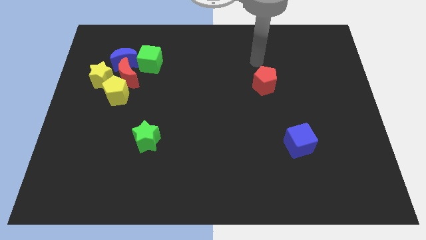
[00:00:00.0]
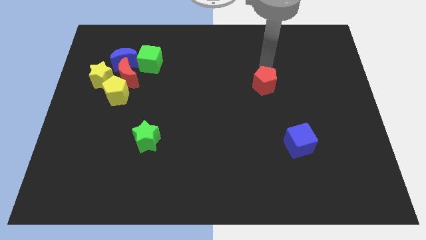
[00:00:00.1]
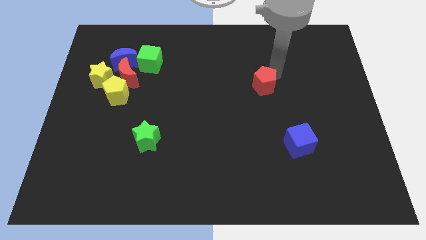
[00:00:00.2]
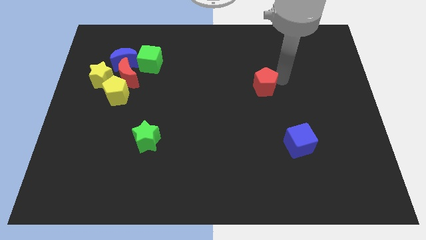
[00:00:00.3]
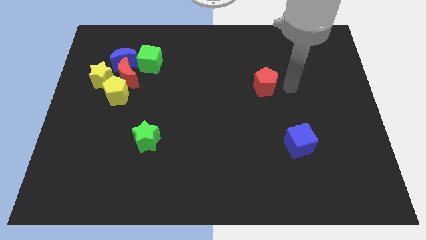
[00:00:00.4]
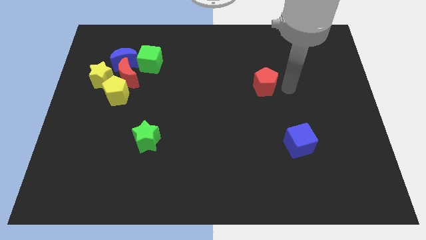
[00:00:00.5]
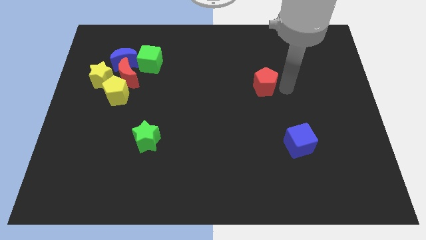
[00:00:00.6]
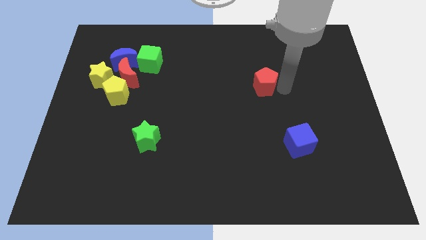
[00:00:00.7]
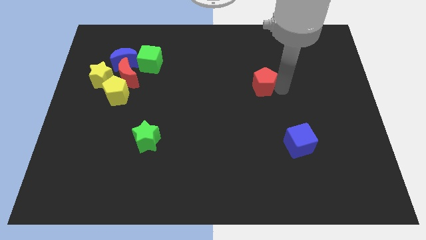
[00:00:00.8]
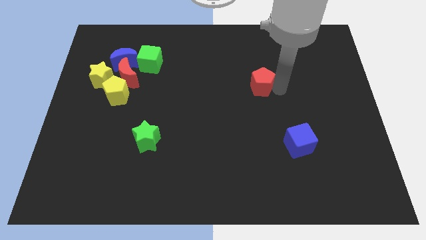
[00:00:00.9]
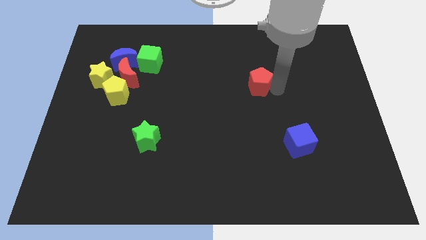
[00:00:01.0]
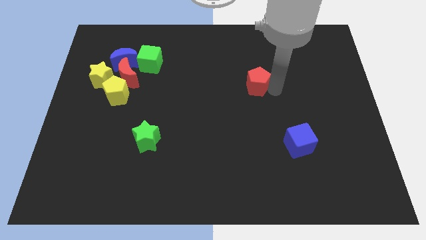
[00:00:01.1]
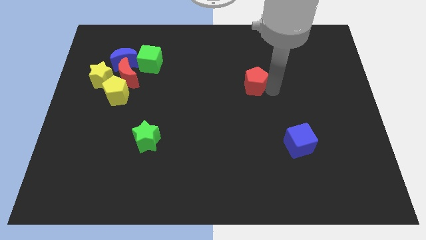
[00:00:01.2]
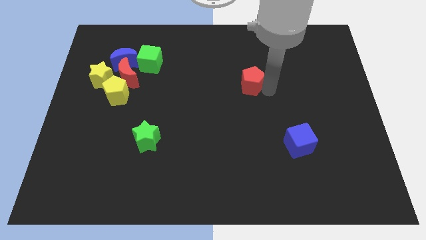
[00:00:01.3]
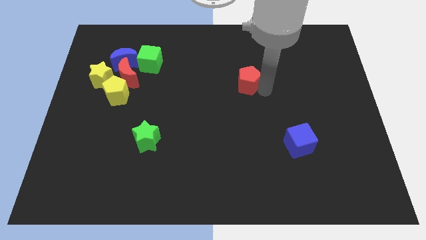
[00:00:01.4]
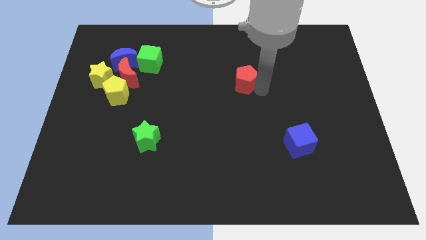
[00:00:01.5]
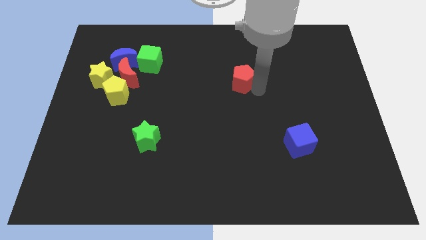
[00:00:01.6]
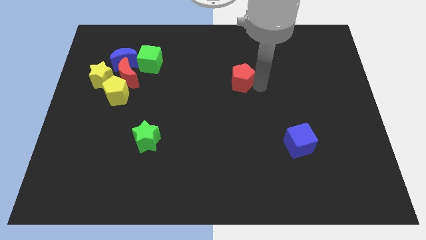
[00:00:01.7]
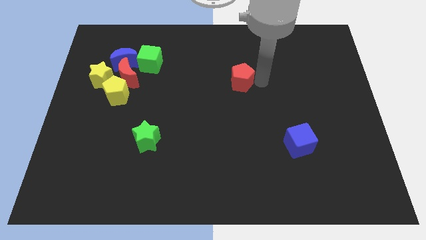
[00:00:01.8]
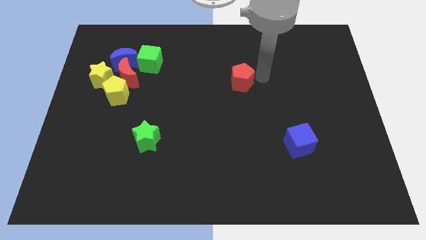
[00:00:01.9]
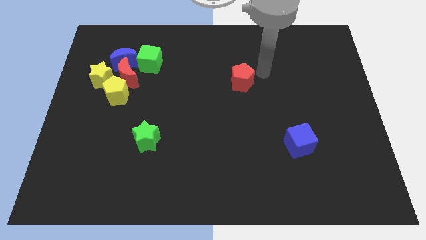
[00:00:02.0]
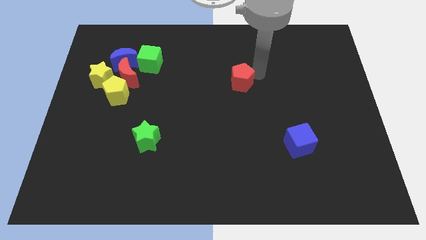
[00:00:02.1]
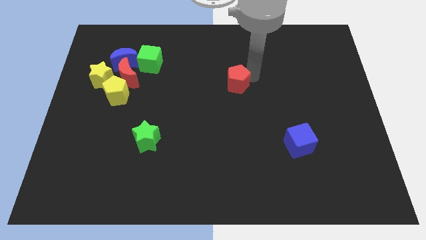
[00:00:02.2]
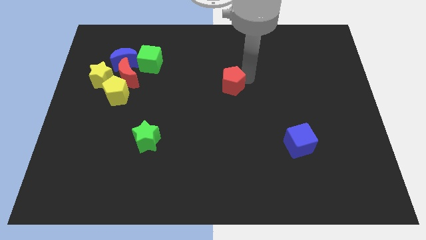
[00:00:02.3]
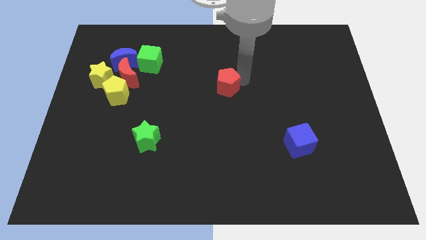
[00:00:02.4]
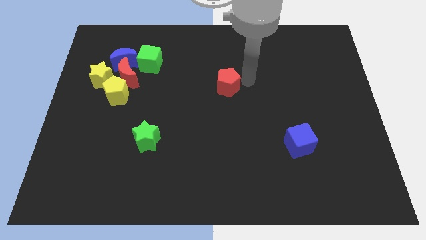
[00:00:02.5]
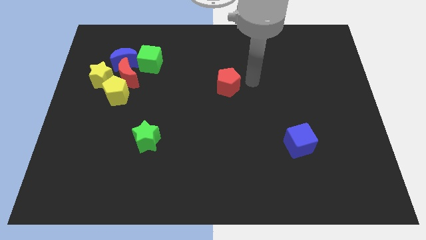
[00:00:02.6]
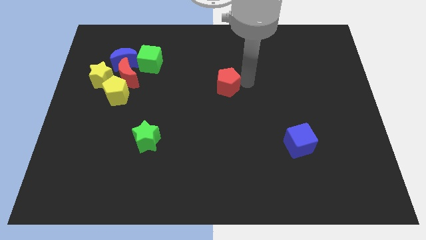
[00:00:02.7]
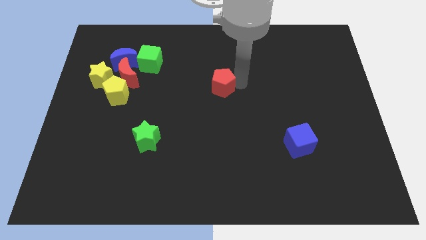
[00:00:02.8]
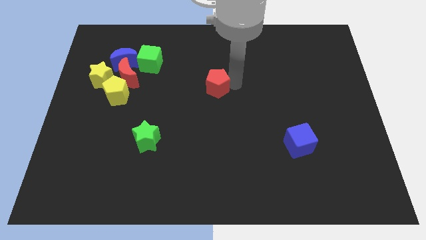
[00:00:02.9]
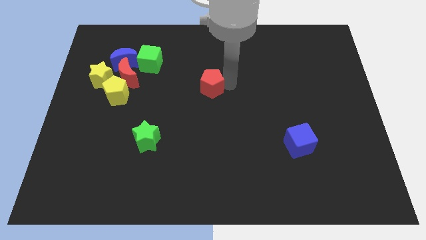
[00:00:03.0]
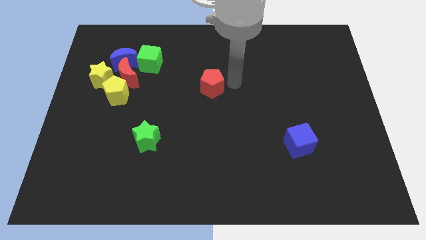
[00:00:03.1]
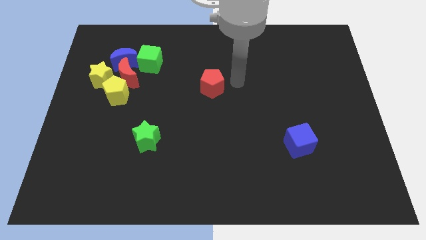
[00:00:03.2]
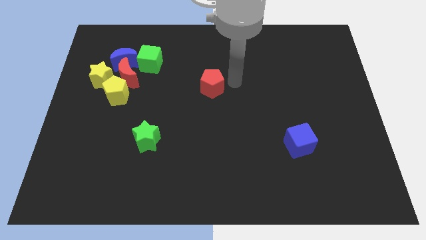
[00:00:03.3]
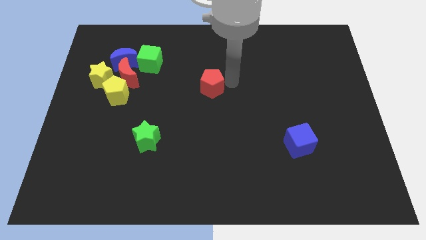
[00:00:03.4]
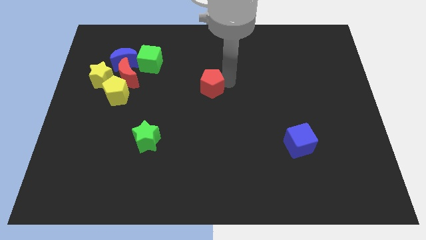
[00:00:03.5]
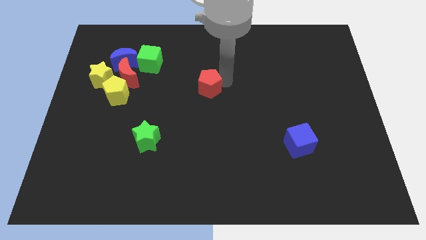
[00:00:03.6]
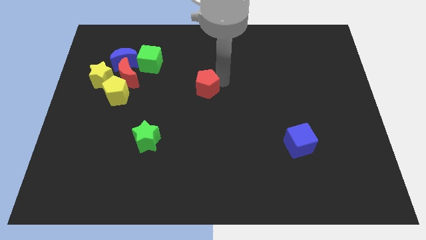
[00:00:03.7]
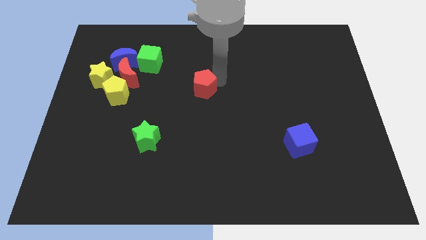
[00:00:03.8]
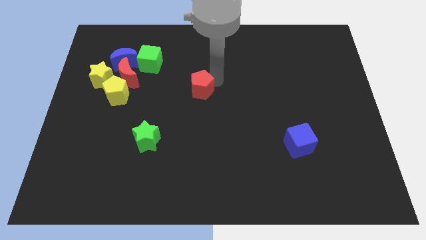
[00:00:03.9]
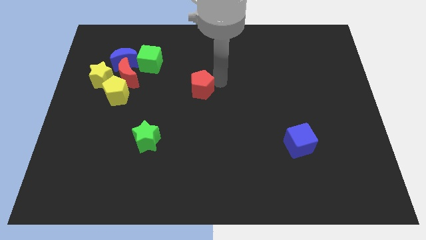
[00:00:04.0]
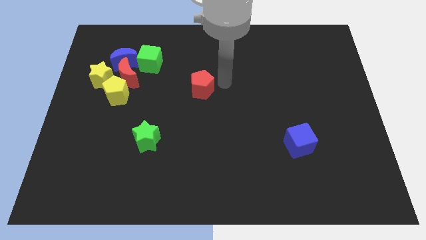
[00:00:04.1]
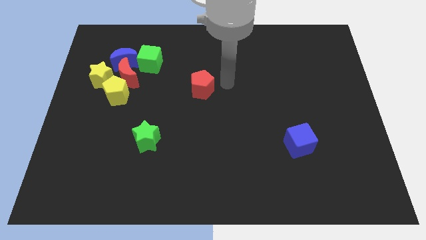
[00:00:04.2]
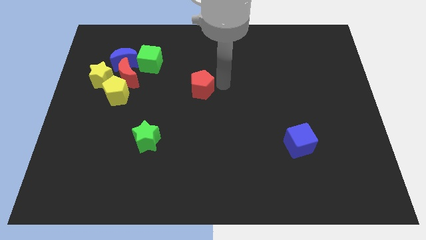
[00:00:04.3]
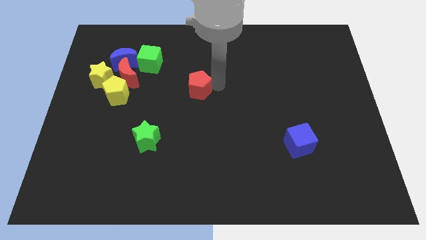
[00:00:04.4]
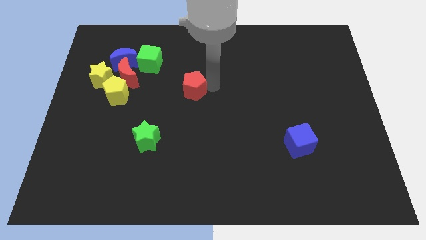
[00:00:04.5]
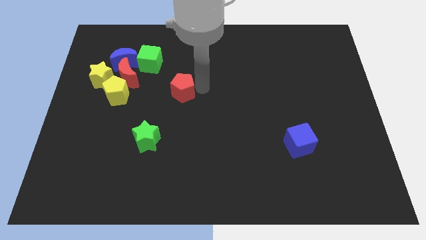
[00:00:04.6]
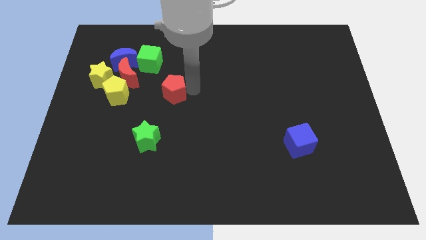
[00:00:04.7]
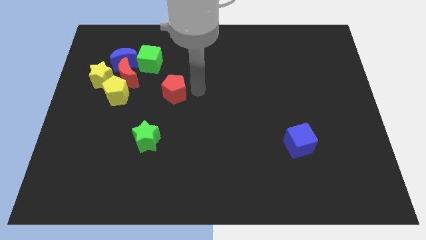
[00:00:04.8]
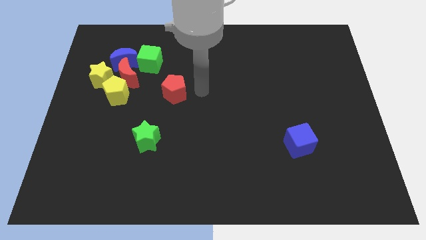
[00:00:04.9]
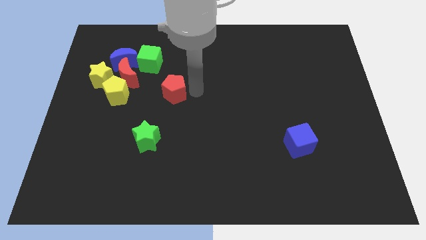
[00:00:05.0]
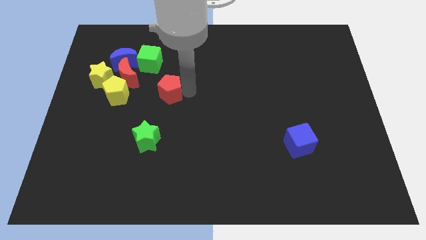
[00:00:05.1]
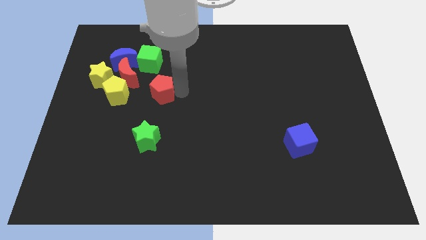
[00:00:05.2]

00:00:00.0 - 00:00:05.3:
slide the red pentagon diagonally down and to the right of the red moon

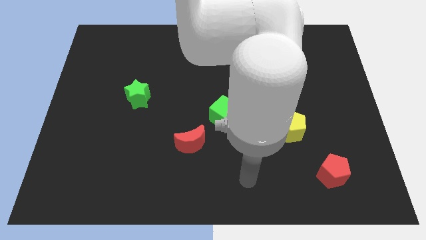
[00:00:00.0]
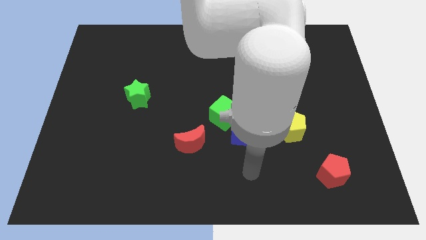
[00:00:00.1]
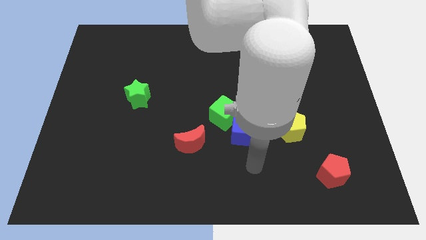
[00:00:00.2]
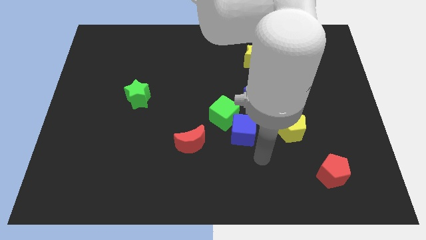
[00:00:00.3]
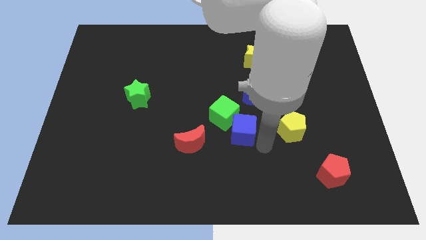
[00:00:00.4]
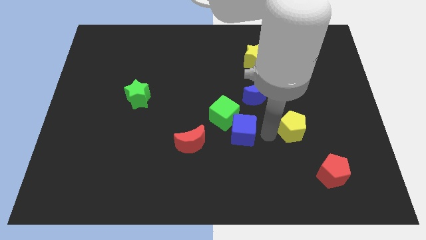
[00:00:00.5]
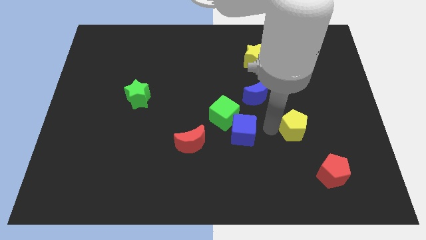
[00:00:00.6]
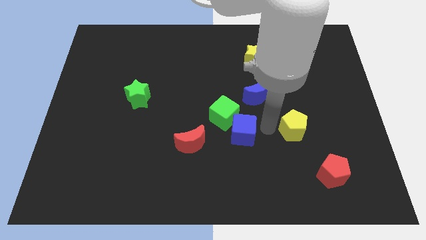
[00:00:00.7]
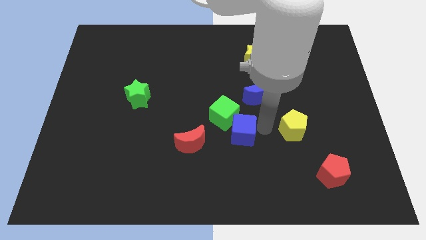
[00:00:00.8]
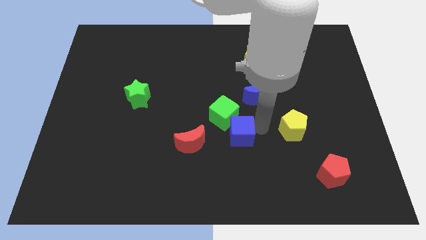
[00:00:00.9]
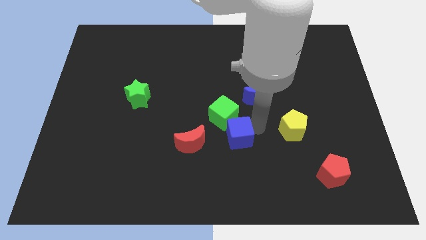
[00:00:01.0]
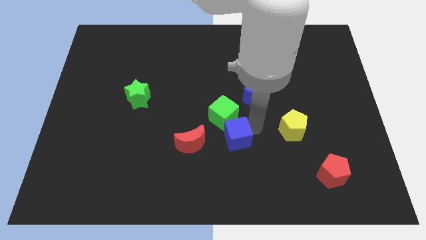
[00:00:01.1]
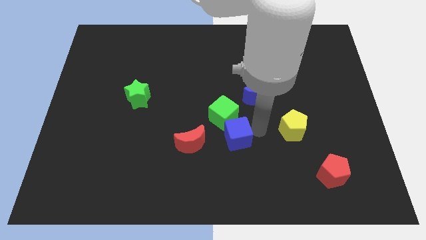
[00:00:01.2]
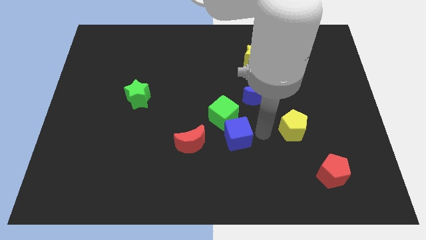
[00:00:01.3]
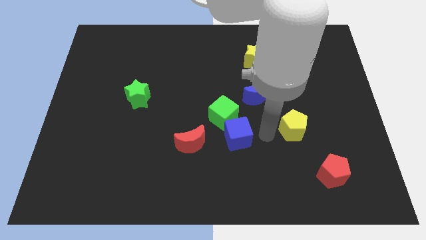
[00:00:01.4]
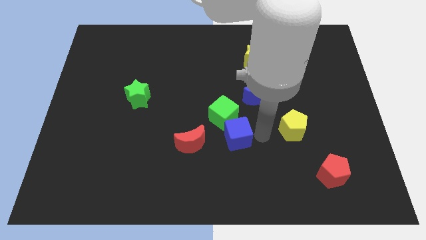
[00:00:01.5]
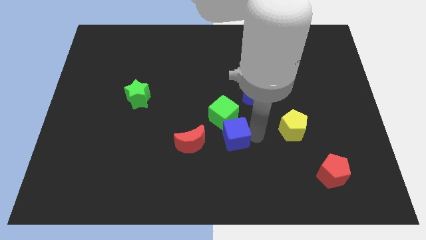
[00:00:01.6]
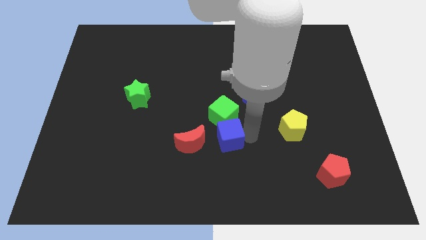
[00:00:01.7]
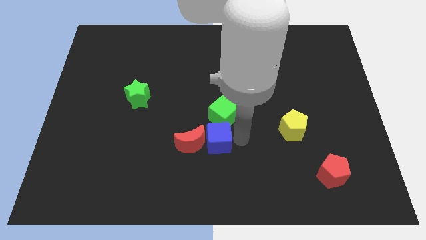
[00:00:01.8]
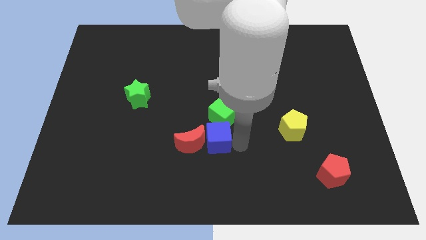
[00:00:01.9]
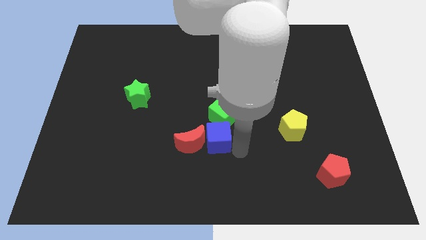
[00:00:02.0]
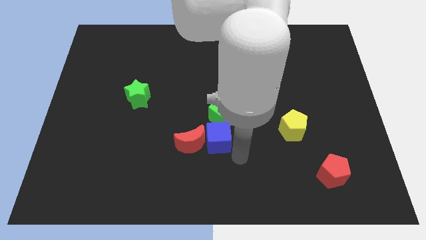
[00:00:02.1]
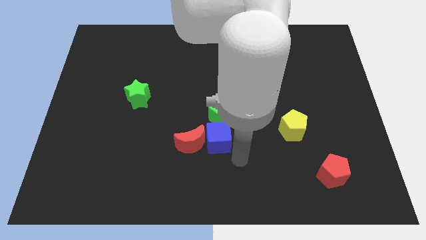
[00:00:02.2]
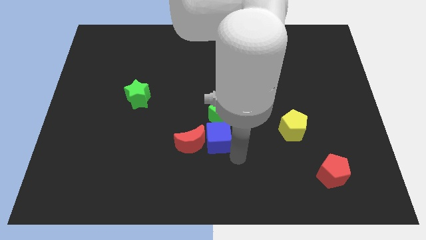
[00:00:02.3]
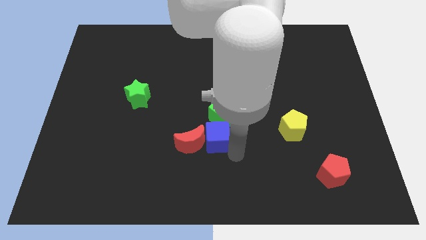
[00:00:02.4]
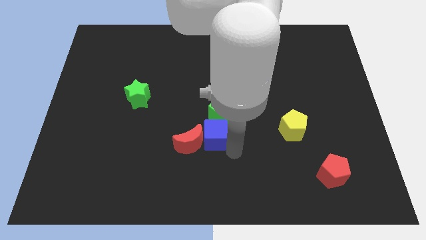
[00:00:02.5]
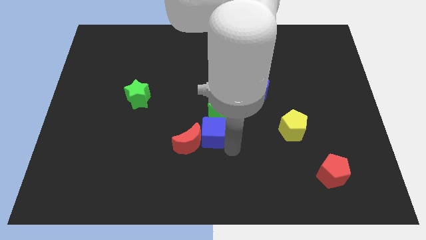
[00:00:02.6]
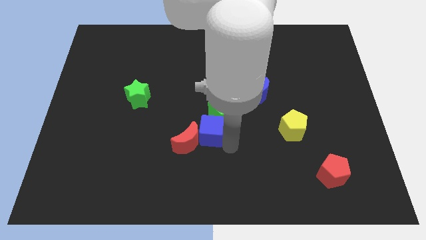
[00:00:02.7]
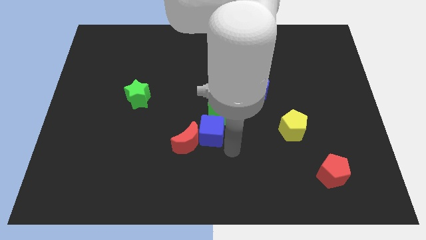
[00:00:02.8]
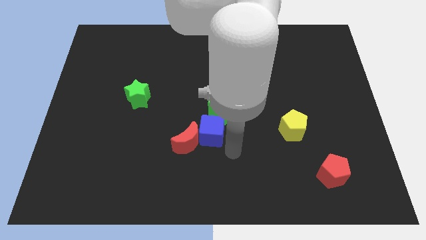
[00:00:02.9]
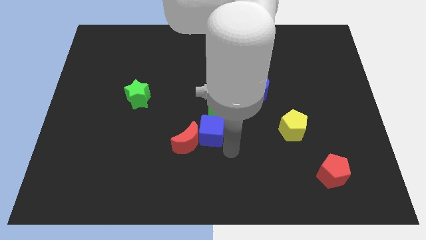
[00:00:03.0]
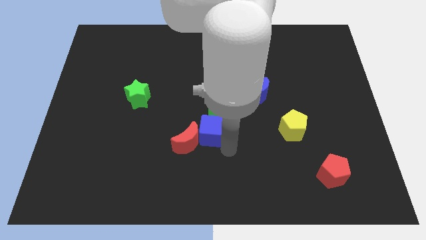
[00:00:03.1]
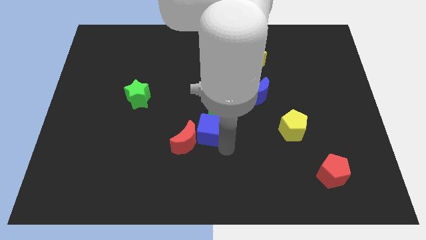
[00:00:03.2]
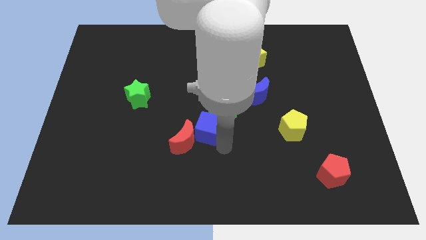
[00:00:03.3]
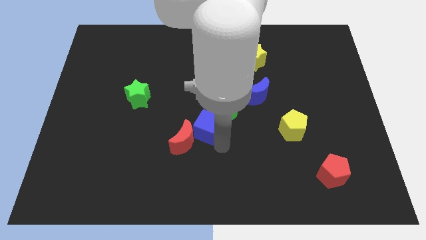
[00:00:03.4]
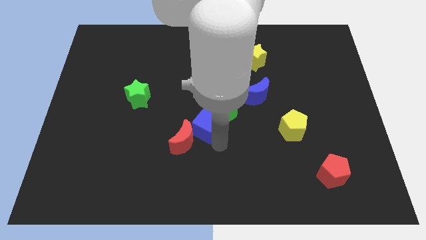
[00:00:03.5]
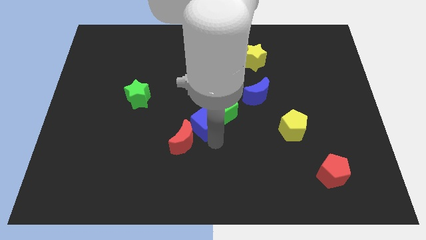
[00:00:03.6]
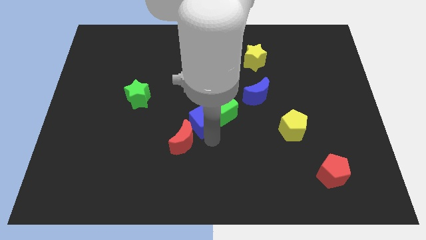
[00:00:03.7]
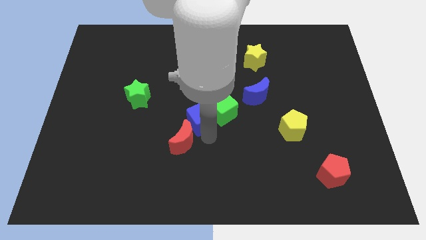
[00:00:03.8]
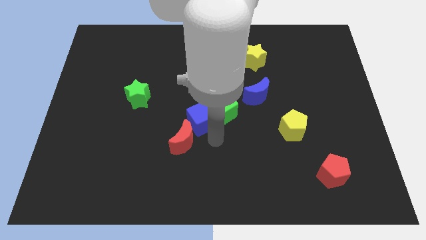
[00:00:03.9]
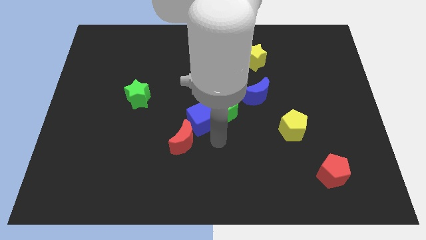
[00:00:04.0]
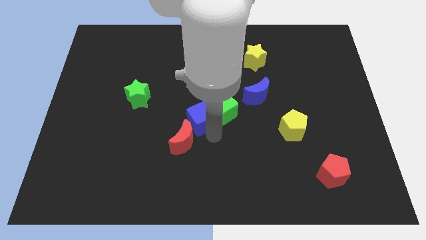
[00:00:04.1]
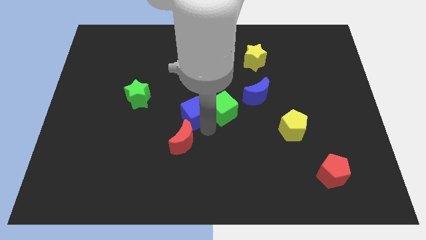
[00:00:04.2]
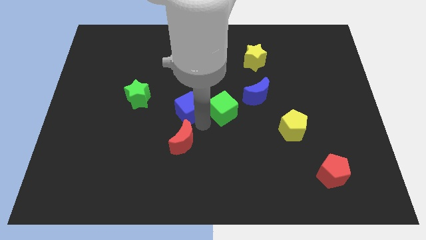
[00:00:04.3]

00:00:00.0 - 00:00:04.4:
push the blue cube to the right side of the green star
